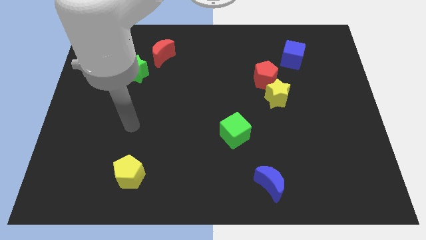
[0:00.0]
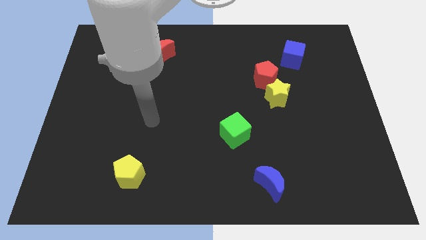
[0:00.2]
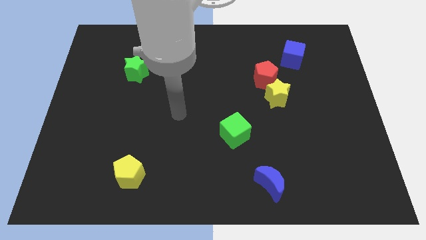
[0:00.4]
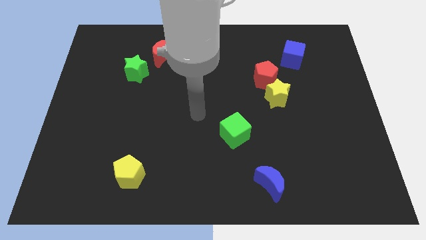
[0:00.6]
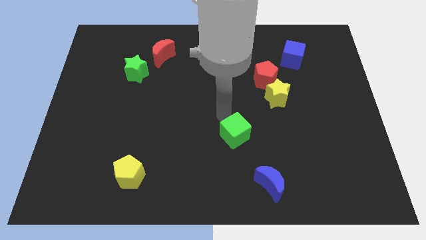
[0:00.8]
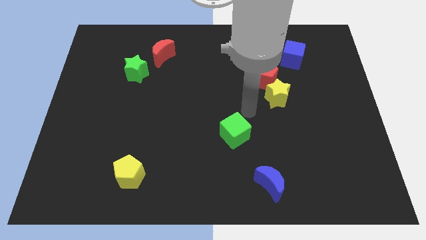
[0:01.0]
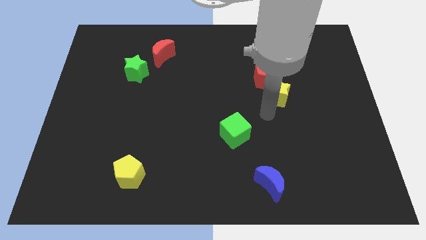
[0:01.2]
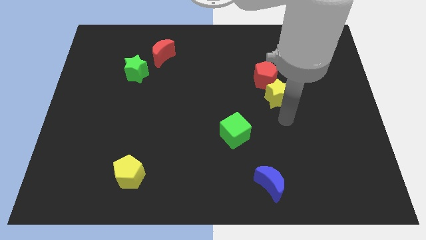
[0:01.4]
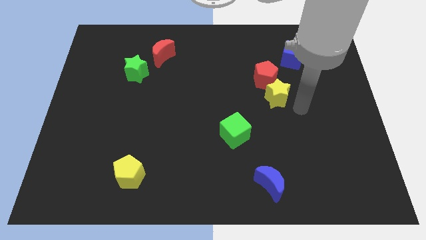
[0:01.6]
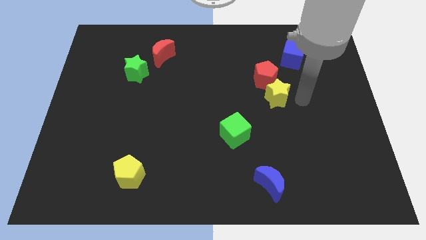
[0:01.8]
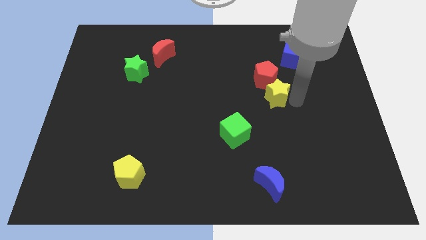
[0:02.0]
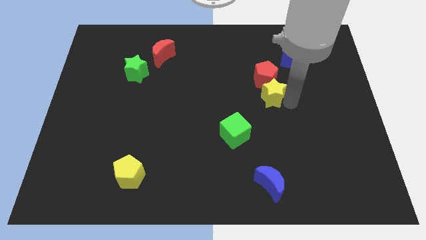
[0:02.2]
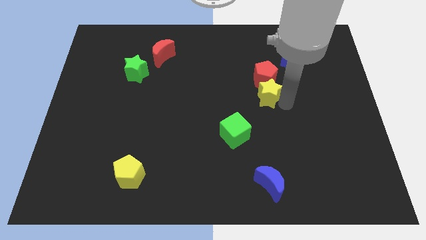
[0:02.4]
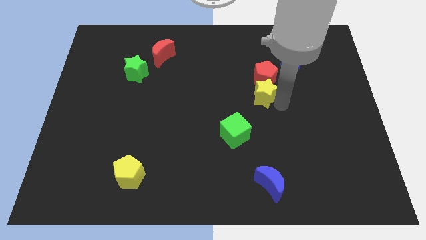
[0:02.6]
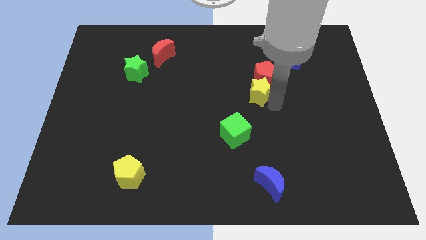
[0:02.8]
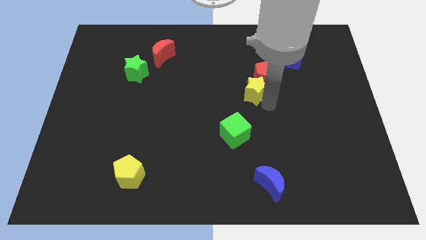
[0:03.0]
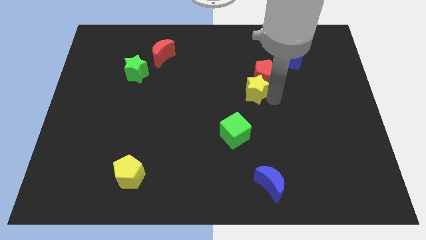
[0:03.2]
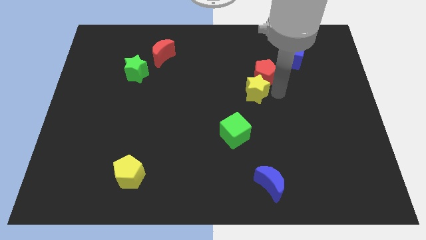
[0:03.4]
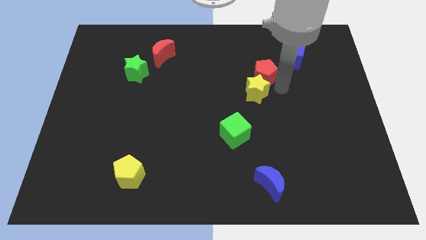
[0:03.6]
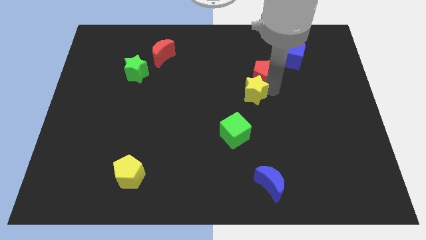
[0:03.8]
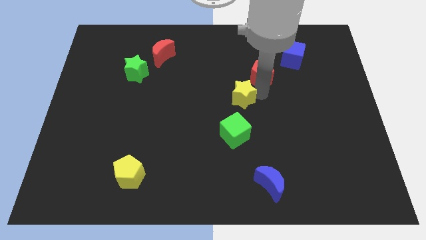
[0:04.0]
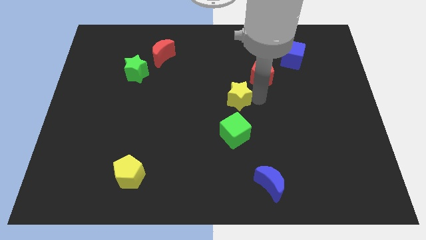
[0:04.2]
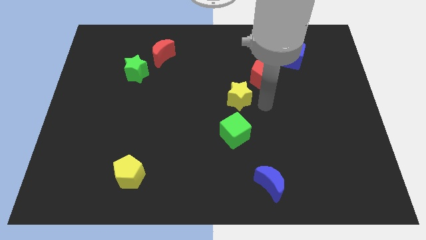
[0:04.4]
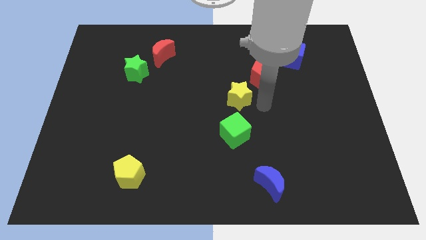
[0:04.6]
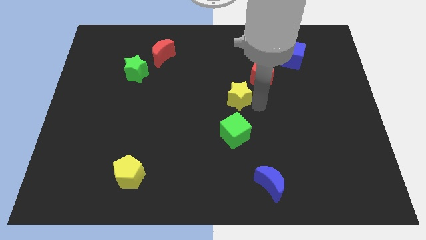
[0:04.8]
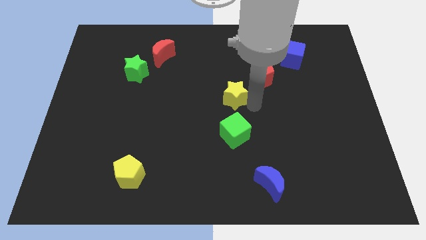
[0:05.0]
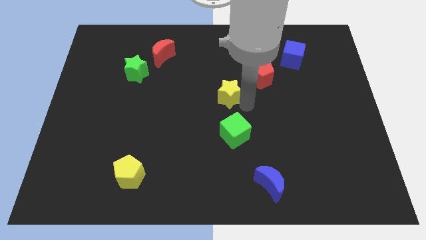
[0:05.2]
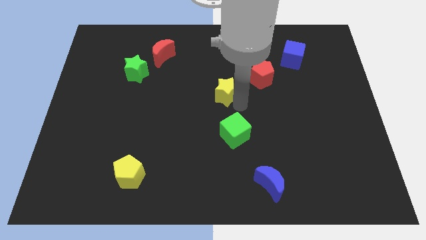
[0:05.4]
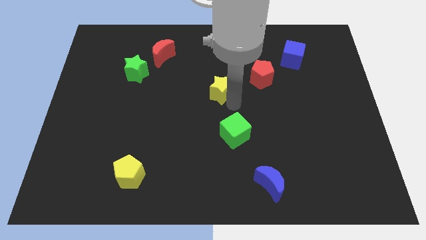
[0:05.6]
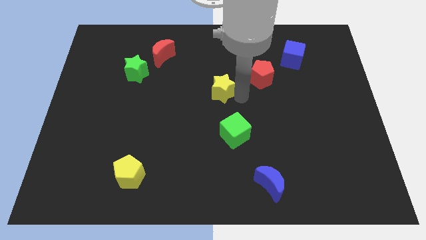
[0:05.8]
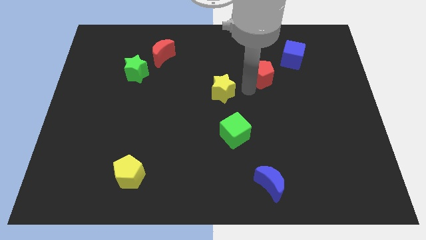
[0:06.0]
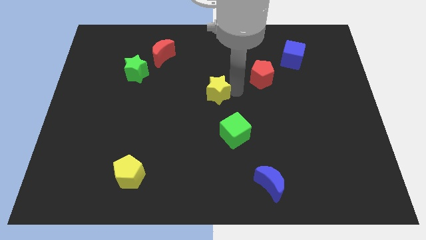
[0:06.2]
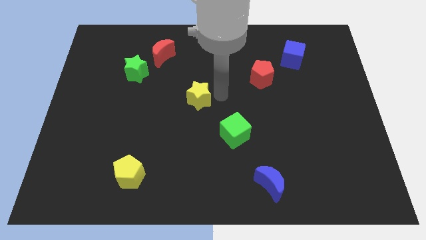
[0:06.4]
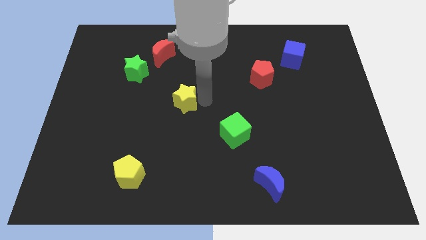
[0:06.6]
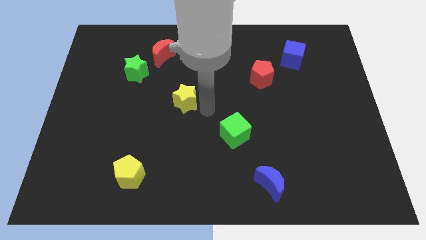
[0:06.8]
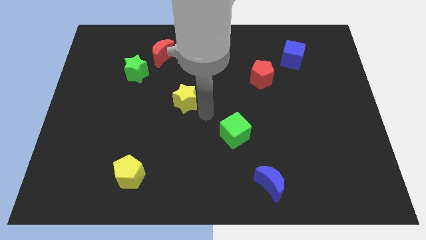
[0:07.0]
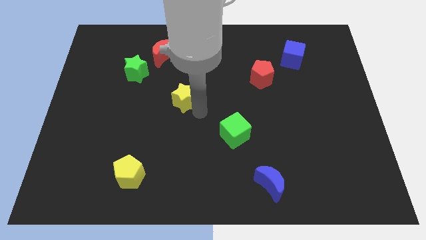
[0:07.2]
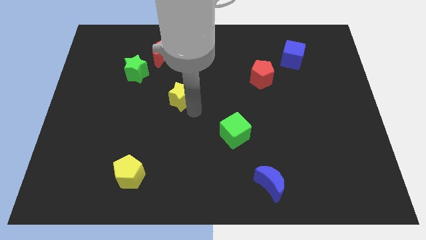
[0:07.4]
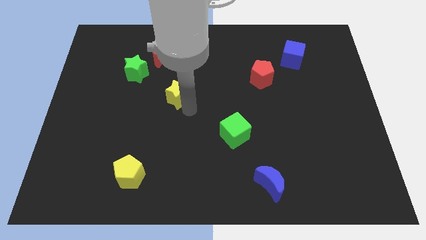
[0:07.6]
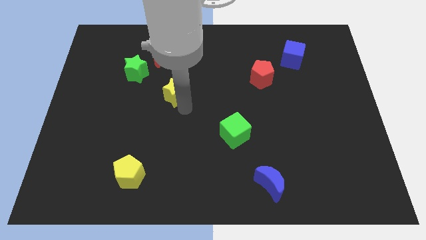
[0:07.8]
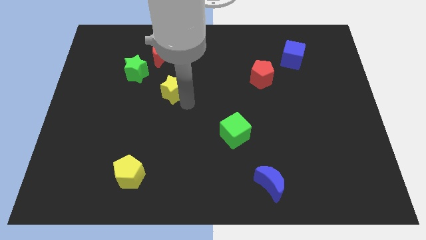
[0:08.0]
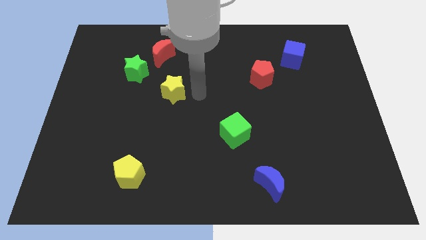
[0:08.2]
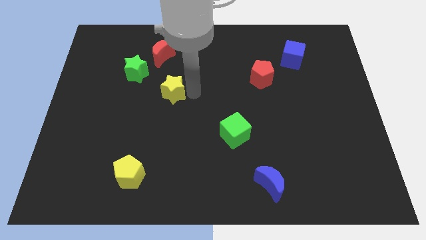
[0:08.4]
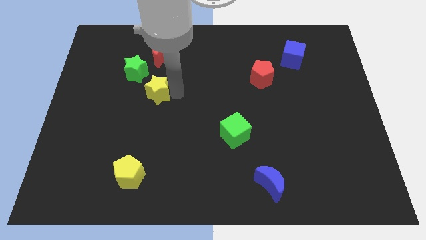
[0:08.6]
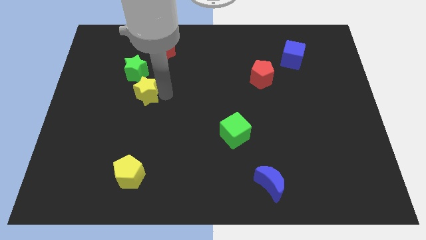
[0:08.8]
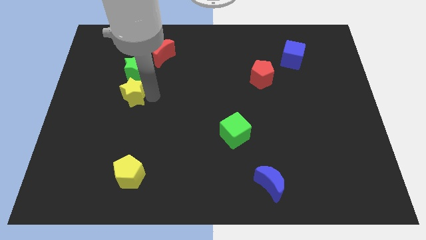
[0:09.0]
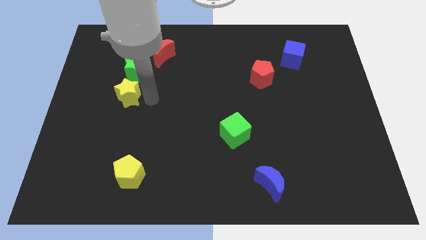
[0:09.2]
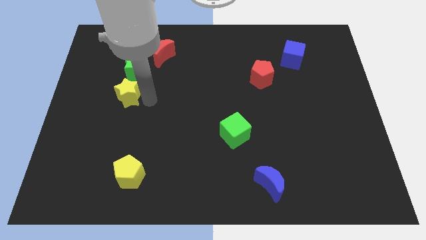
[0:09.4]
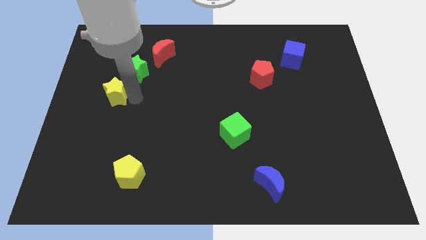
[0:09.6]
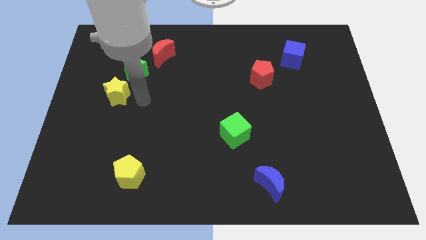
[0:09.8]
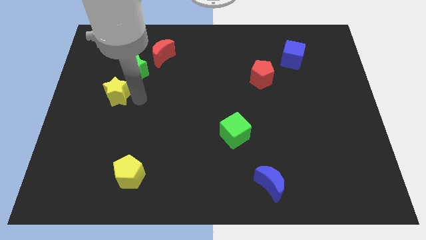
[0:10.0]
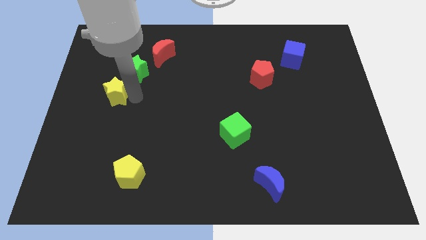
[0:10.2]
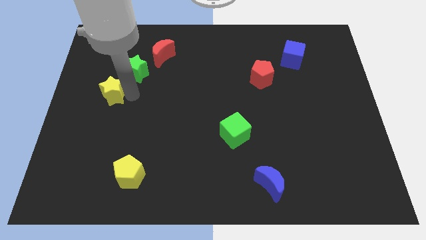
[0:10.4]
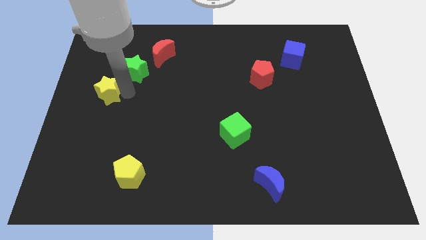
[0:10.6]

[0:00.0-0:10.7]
put the yellow star to the left side

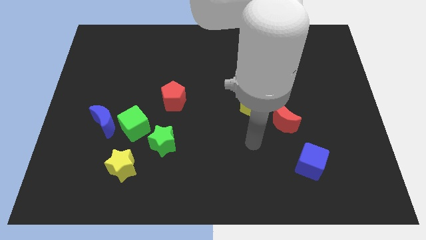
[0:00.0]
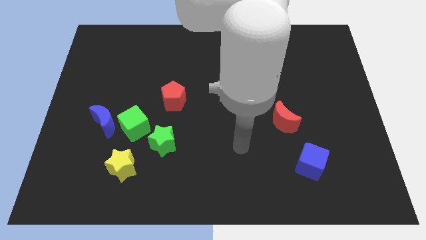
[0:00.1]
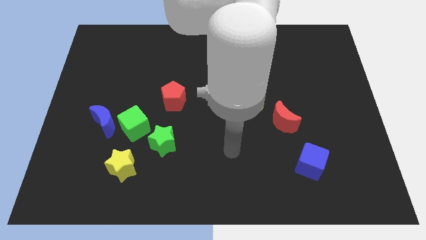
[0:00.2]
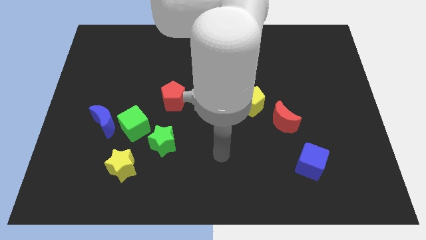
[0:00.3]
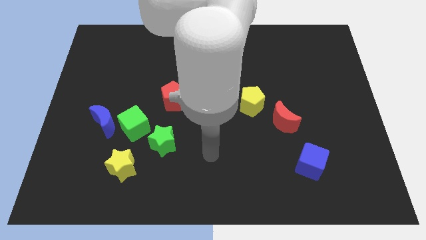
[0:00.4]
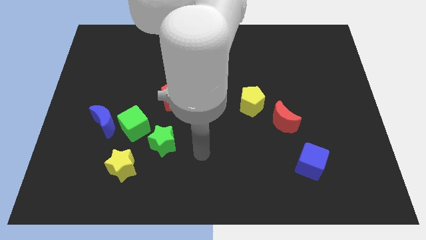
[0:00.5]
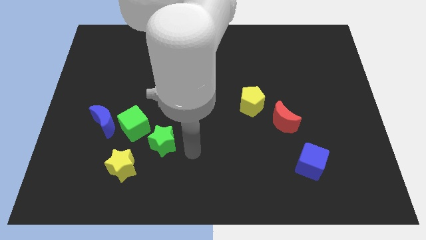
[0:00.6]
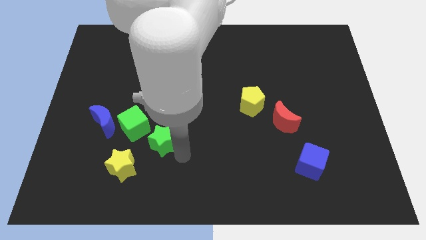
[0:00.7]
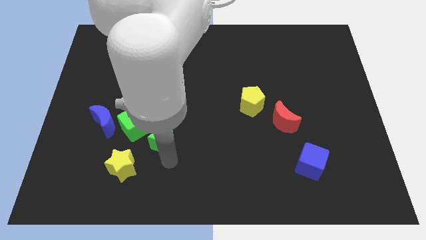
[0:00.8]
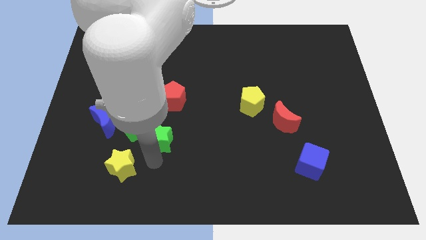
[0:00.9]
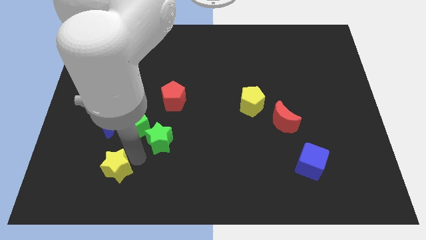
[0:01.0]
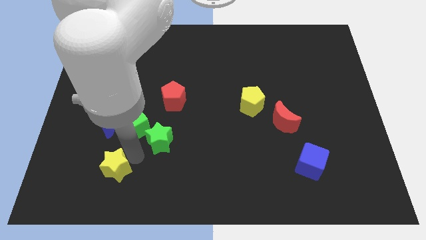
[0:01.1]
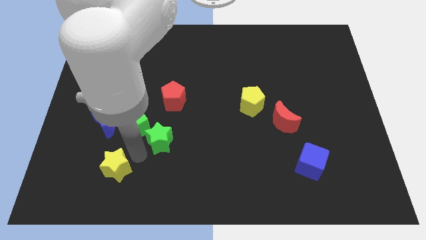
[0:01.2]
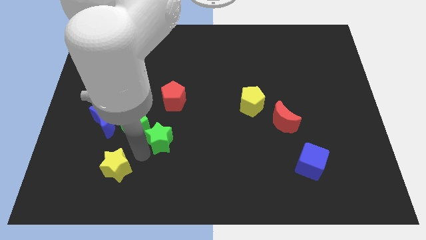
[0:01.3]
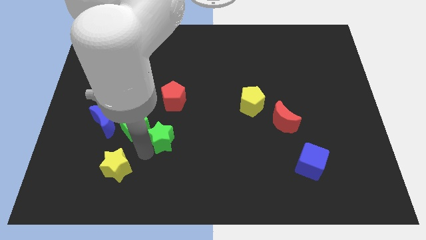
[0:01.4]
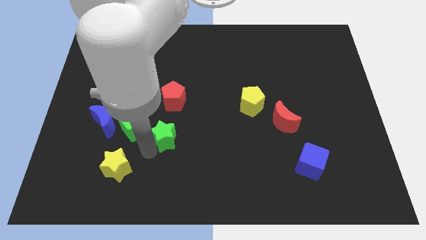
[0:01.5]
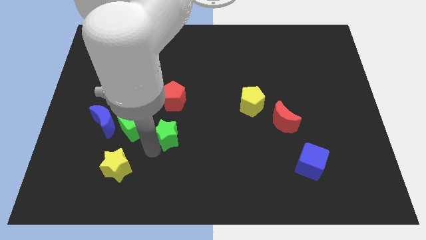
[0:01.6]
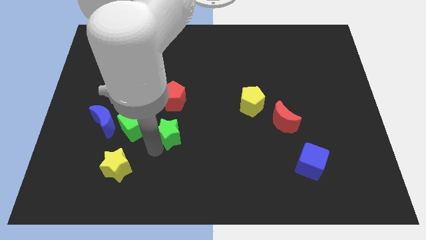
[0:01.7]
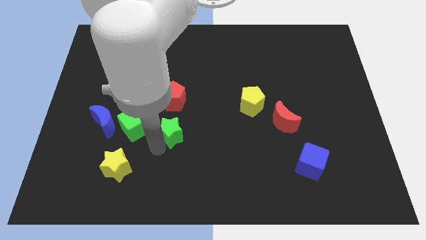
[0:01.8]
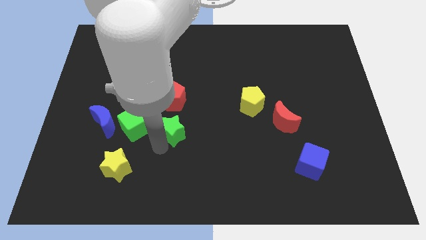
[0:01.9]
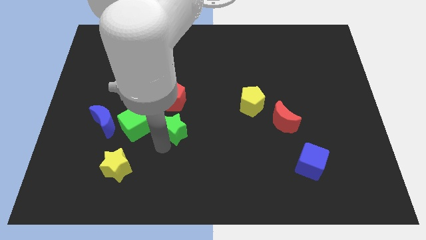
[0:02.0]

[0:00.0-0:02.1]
move the green star to the center of the board

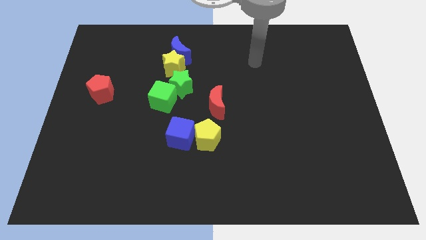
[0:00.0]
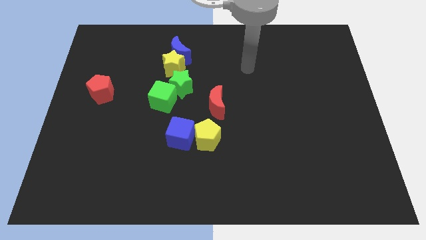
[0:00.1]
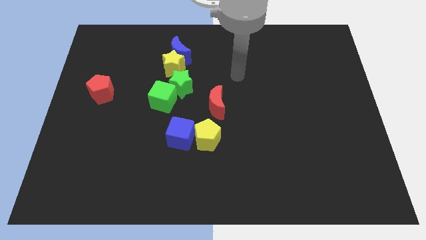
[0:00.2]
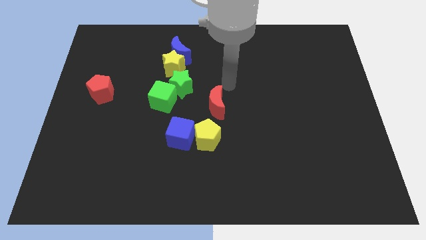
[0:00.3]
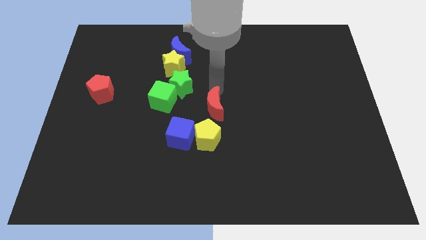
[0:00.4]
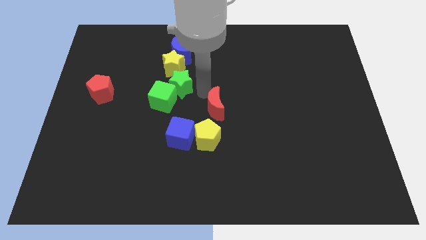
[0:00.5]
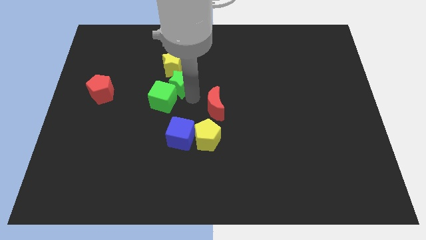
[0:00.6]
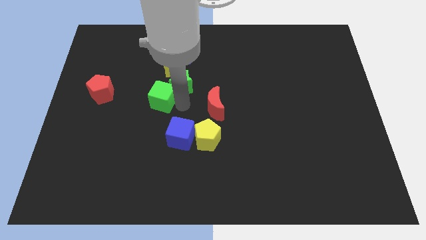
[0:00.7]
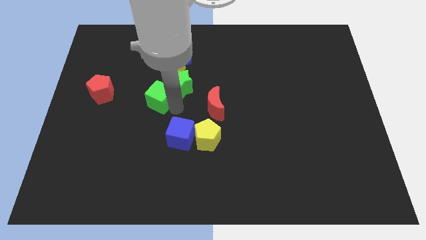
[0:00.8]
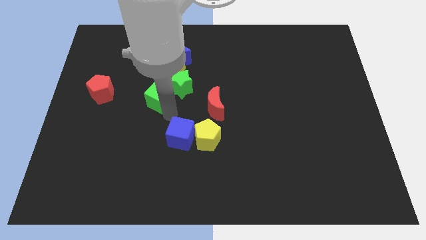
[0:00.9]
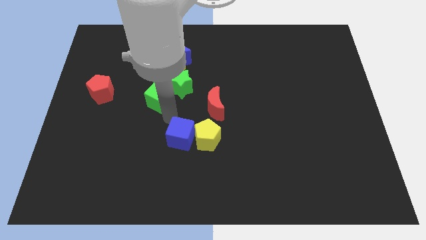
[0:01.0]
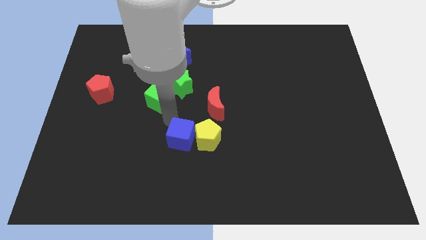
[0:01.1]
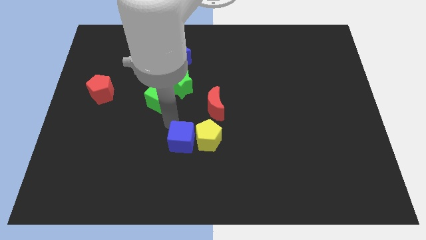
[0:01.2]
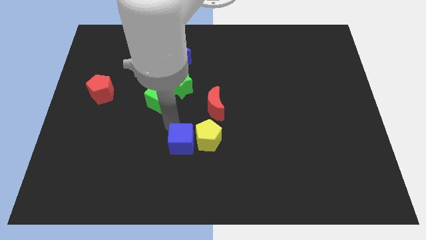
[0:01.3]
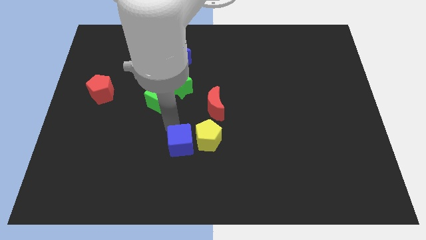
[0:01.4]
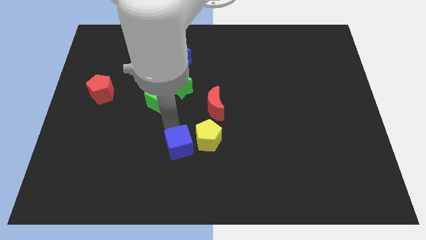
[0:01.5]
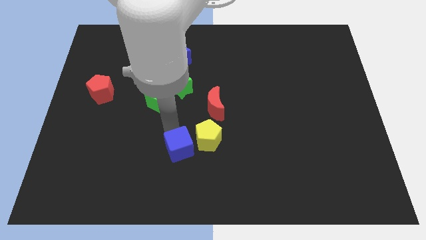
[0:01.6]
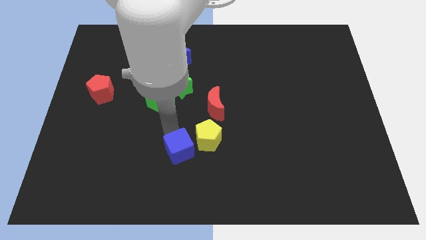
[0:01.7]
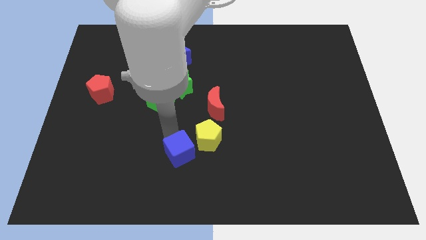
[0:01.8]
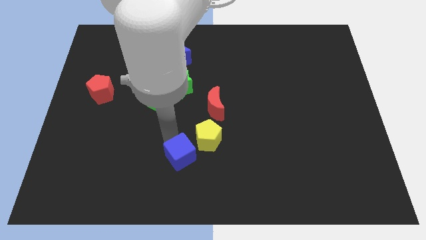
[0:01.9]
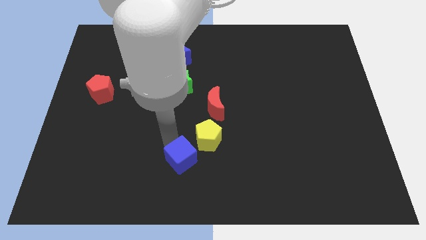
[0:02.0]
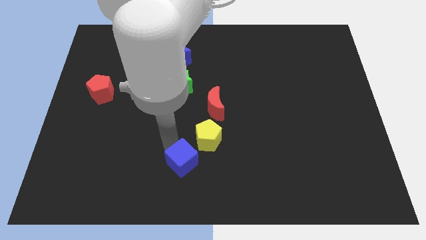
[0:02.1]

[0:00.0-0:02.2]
move the blue cube to the bottom
